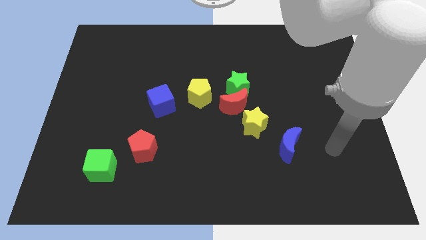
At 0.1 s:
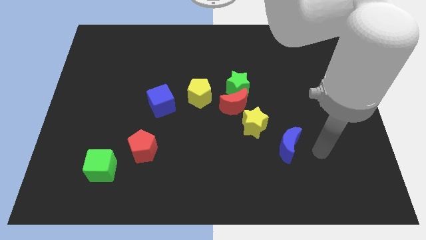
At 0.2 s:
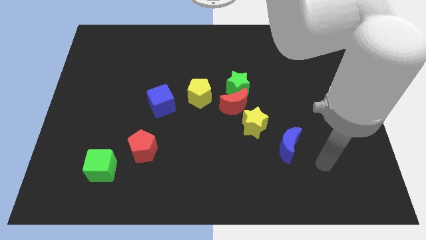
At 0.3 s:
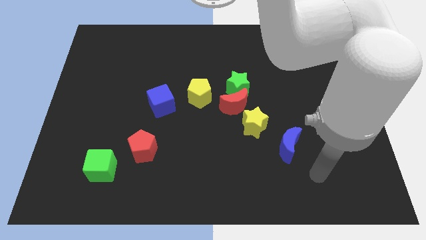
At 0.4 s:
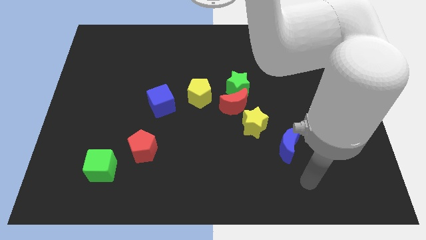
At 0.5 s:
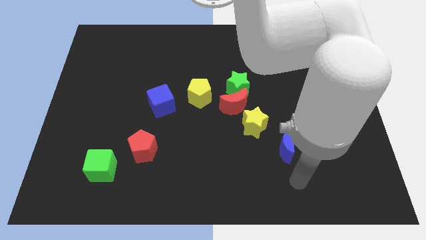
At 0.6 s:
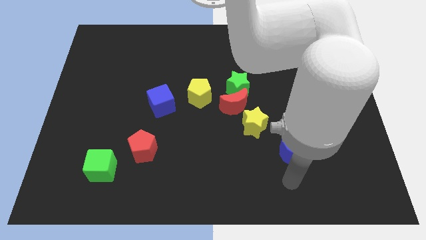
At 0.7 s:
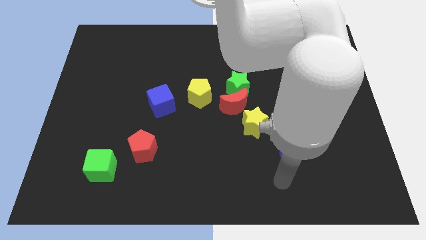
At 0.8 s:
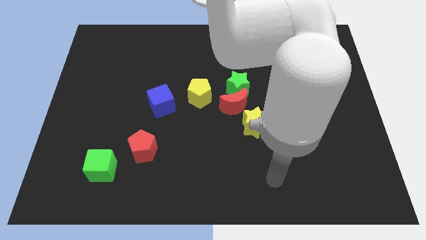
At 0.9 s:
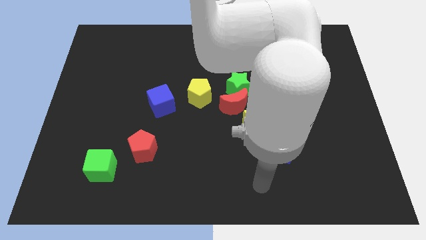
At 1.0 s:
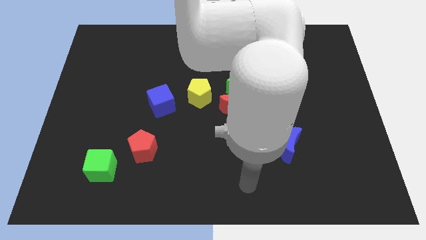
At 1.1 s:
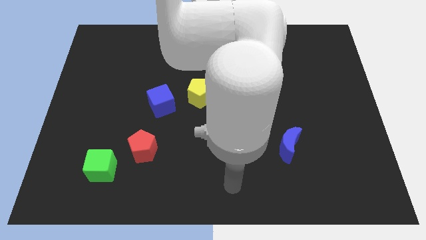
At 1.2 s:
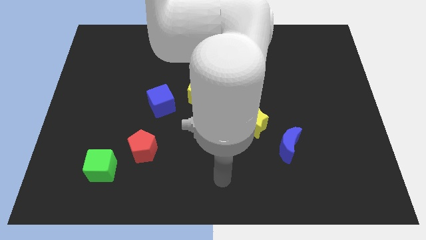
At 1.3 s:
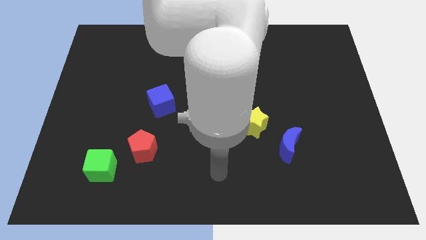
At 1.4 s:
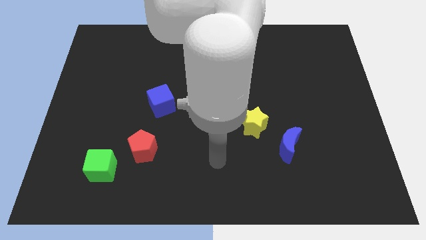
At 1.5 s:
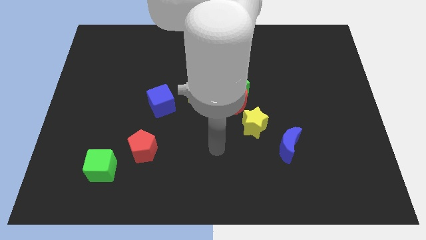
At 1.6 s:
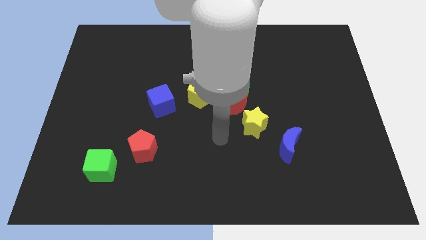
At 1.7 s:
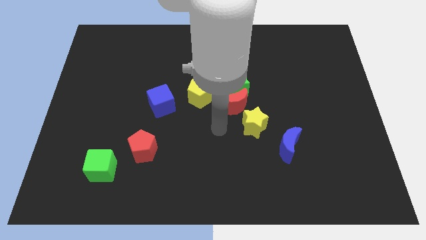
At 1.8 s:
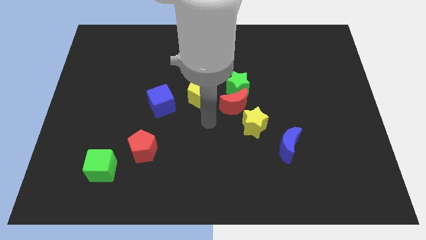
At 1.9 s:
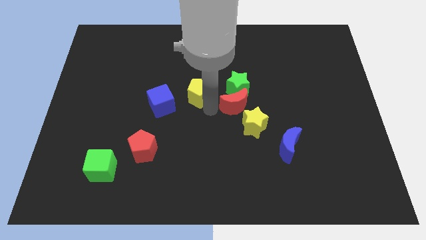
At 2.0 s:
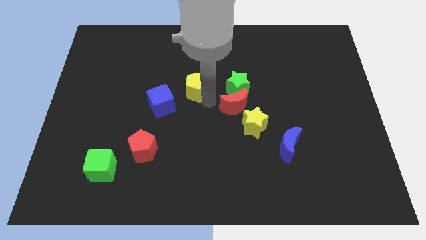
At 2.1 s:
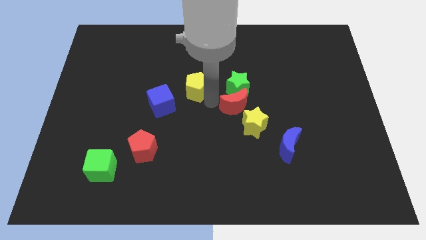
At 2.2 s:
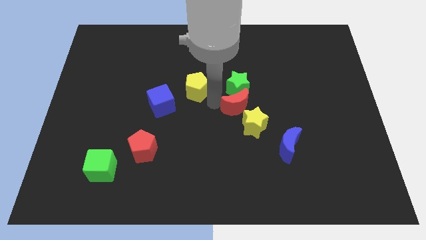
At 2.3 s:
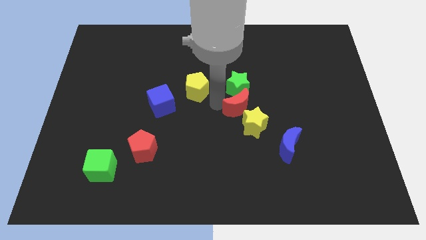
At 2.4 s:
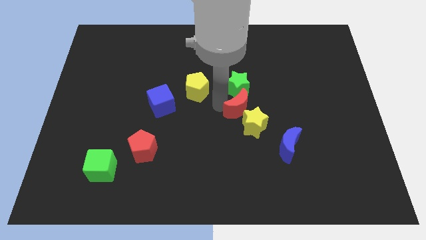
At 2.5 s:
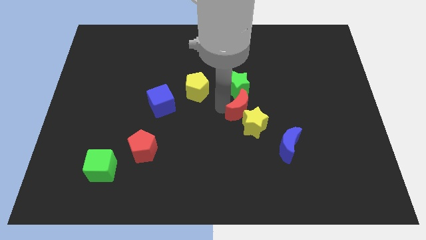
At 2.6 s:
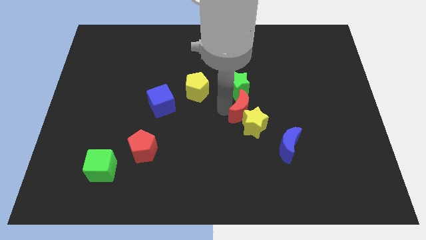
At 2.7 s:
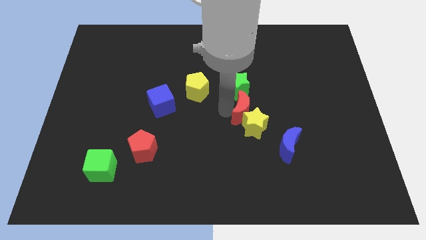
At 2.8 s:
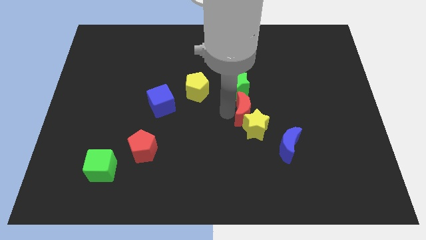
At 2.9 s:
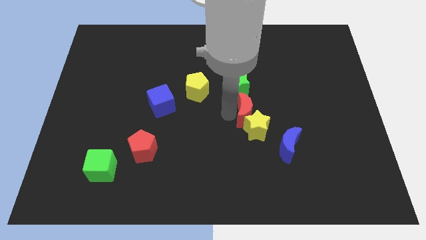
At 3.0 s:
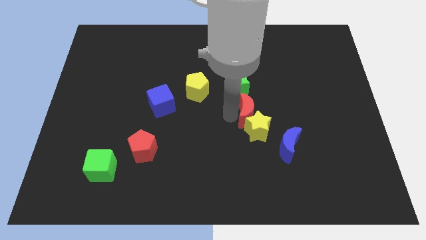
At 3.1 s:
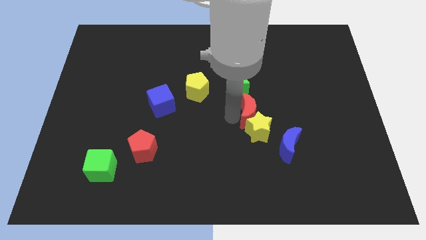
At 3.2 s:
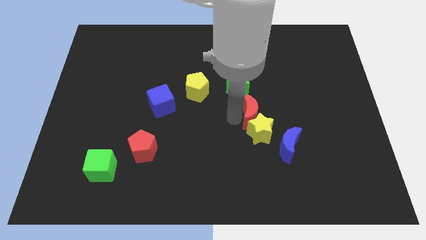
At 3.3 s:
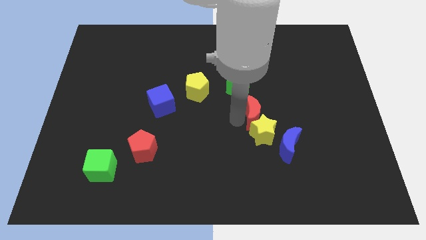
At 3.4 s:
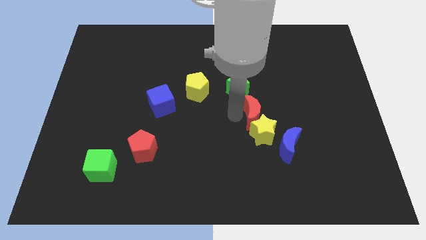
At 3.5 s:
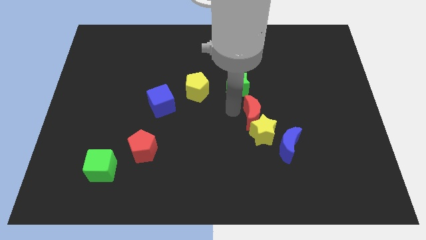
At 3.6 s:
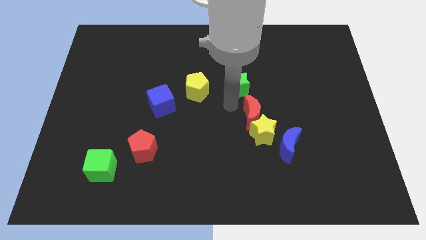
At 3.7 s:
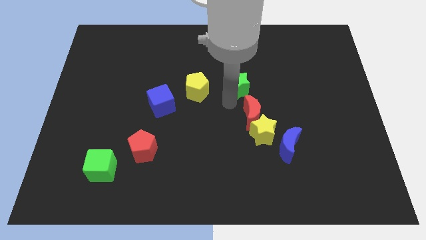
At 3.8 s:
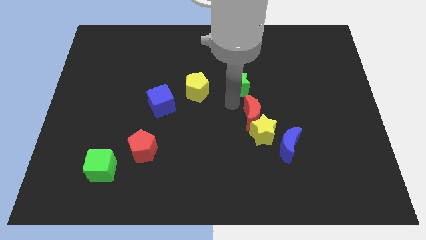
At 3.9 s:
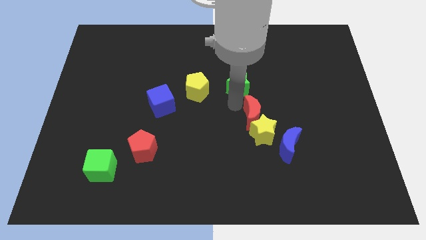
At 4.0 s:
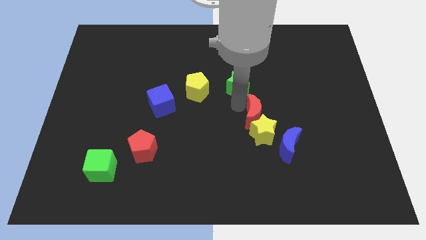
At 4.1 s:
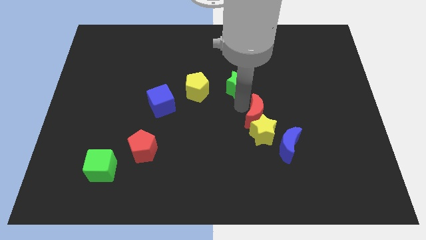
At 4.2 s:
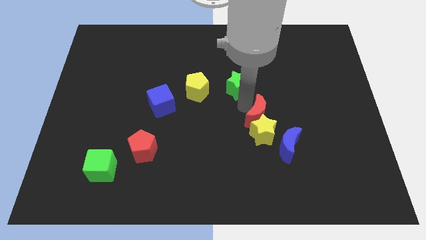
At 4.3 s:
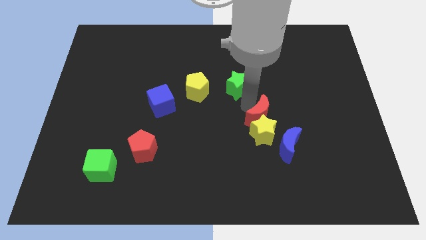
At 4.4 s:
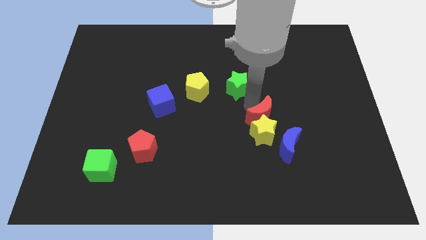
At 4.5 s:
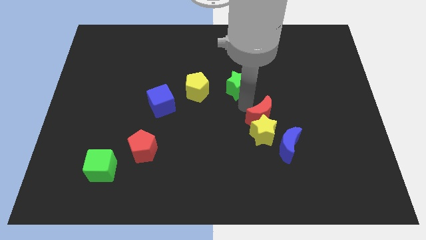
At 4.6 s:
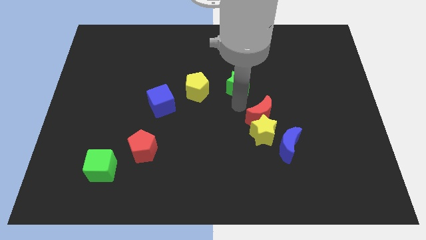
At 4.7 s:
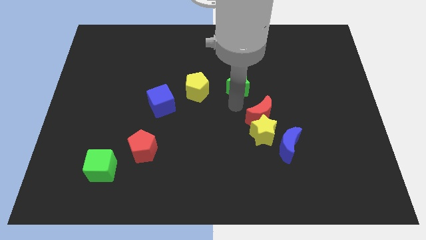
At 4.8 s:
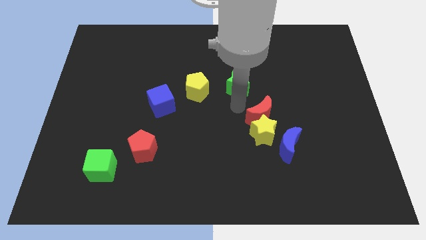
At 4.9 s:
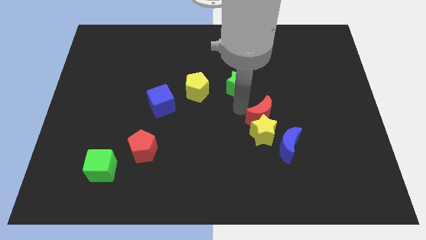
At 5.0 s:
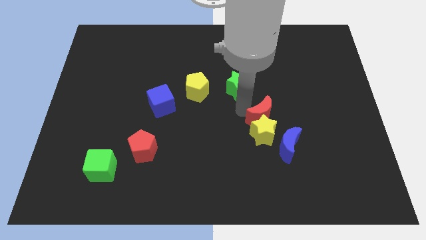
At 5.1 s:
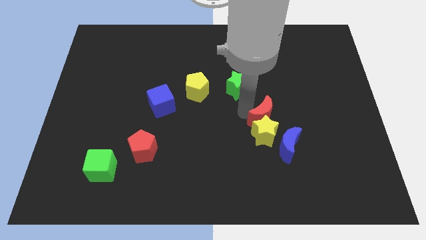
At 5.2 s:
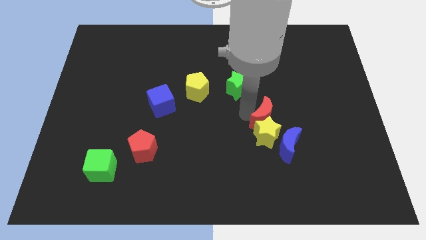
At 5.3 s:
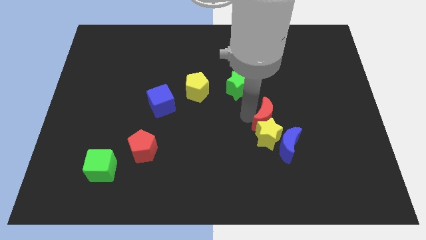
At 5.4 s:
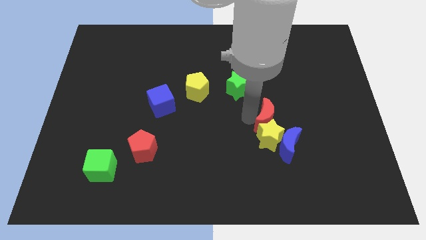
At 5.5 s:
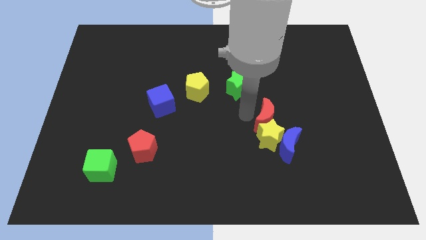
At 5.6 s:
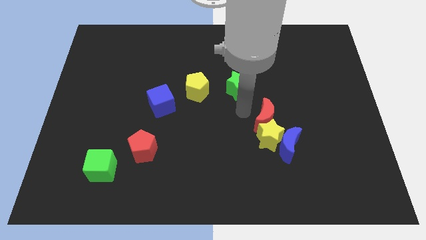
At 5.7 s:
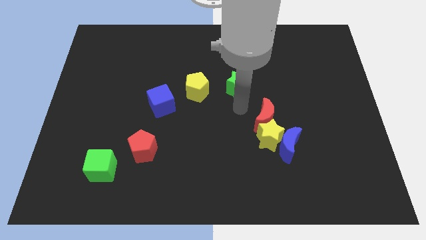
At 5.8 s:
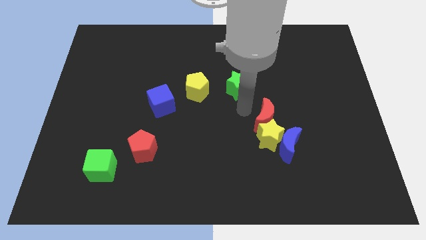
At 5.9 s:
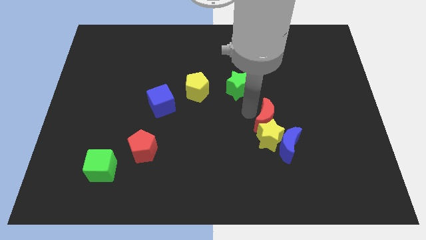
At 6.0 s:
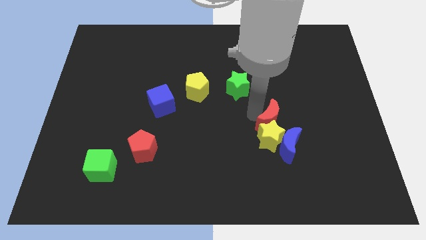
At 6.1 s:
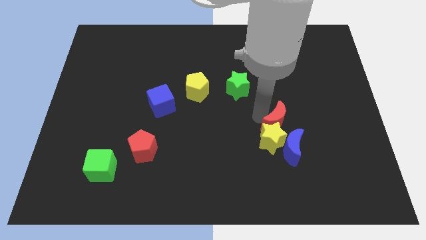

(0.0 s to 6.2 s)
move the red moon away from the clump

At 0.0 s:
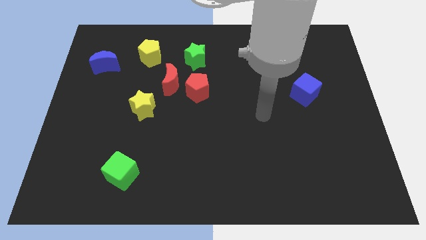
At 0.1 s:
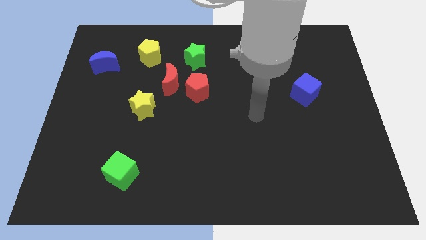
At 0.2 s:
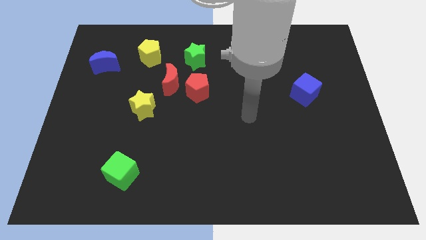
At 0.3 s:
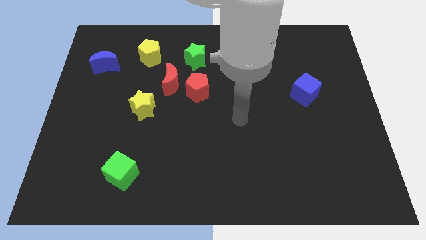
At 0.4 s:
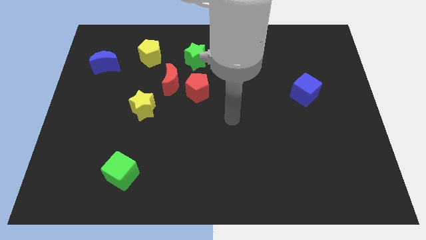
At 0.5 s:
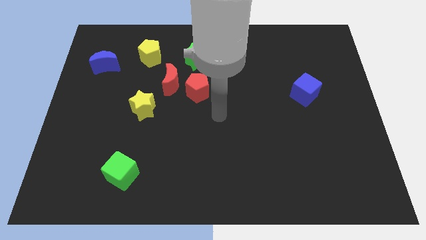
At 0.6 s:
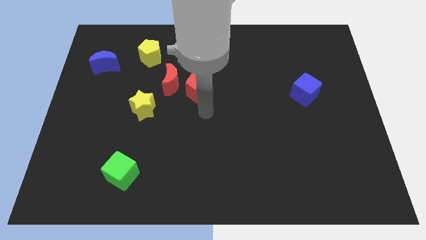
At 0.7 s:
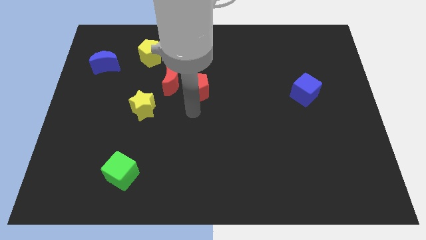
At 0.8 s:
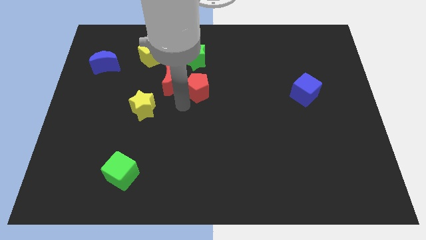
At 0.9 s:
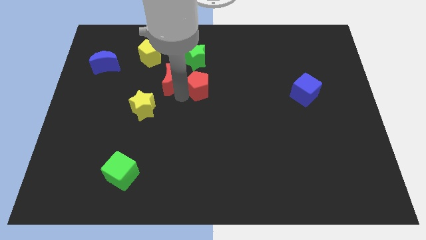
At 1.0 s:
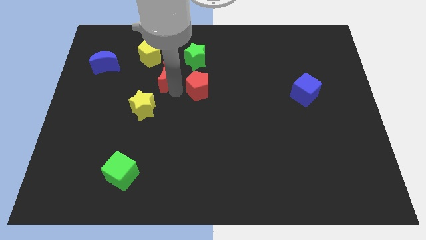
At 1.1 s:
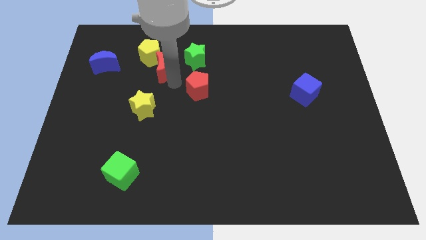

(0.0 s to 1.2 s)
move the red pentagon away from the red moon

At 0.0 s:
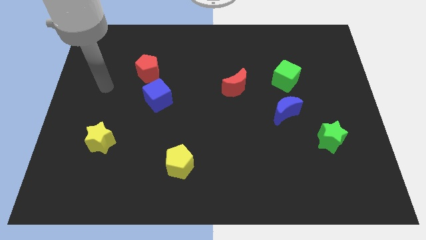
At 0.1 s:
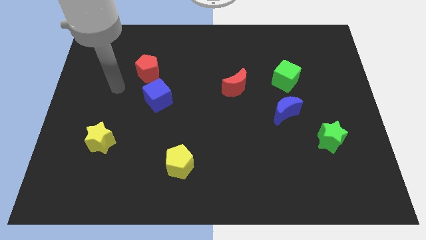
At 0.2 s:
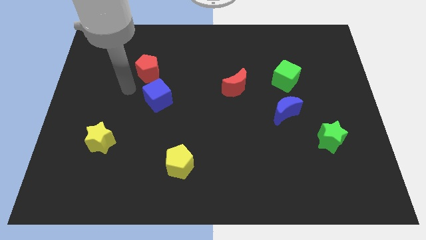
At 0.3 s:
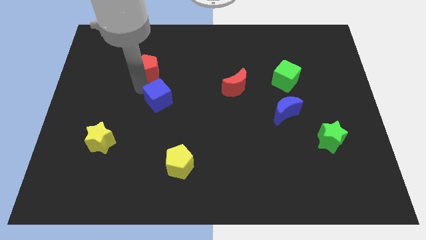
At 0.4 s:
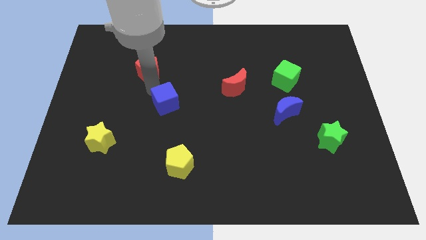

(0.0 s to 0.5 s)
separate the red pentagon from the blue cube

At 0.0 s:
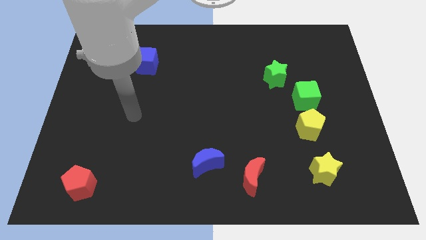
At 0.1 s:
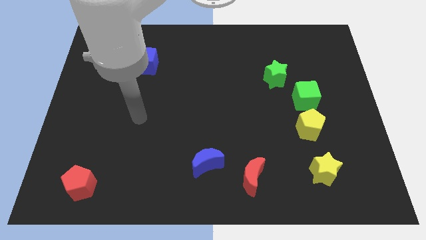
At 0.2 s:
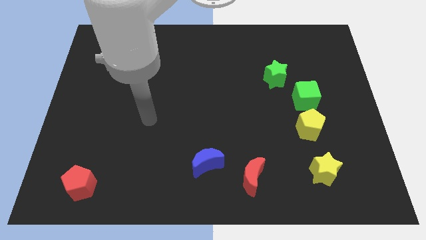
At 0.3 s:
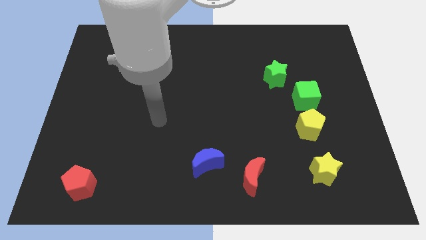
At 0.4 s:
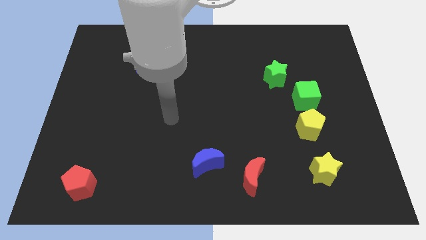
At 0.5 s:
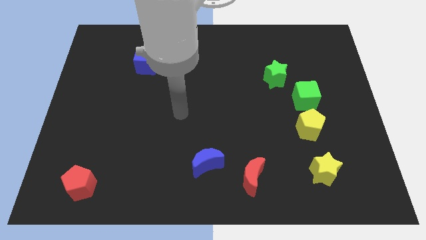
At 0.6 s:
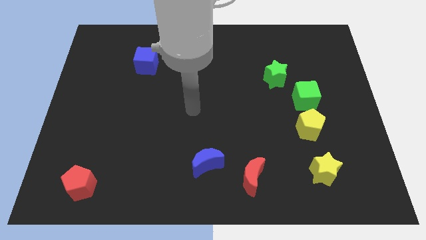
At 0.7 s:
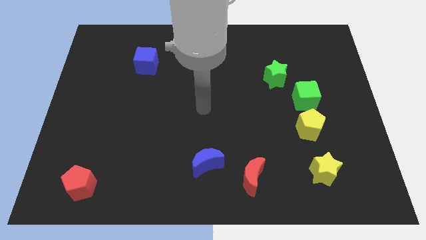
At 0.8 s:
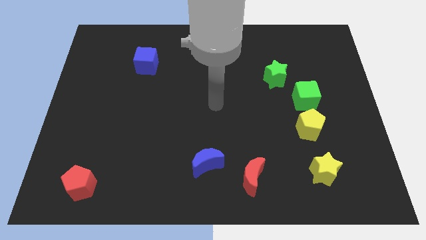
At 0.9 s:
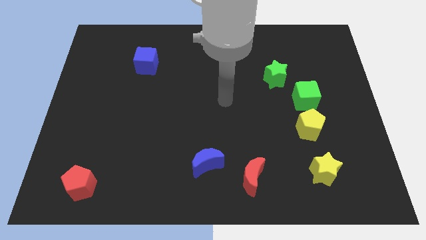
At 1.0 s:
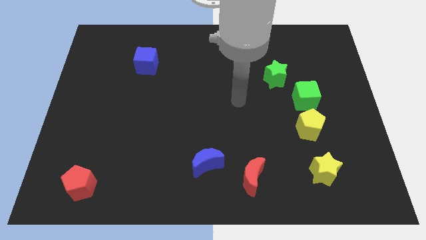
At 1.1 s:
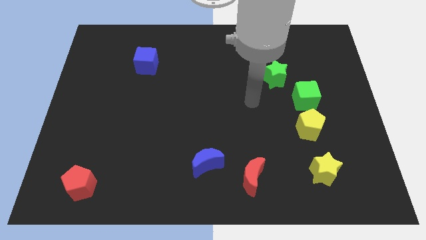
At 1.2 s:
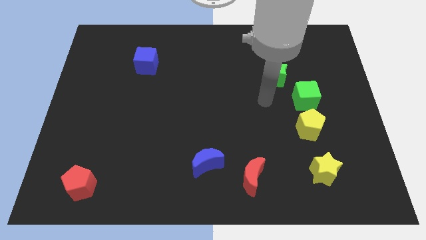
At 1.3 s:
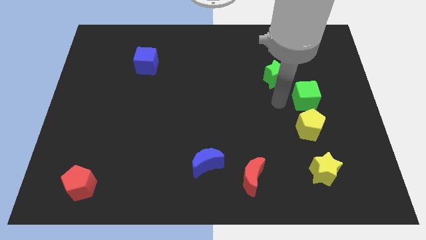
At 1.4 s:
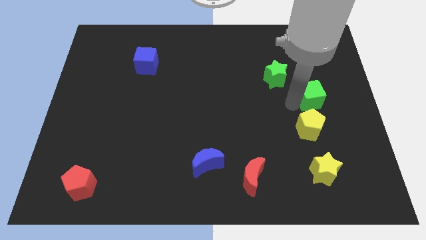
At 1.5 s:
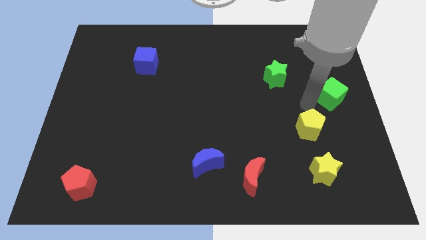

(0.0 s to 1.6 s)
pull the yellow pentagon apart from the green cube

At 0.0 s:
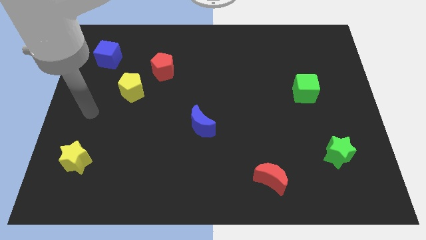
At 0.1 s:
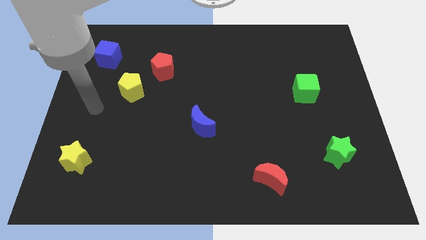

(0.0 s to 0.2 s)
pull the red pentagon apart from the yellow pentagon
